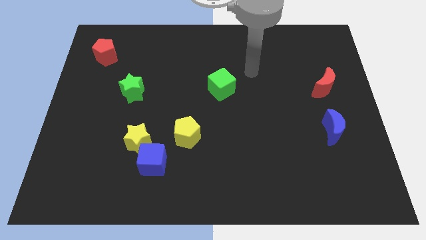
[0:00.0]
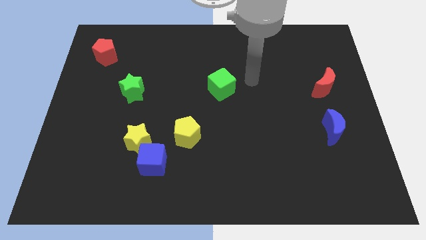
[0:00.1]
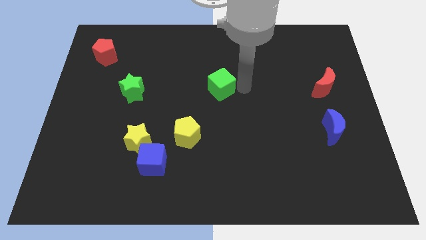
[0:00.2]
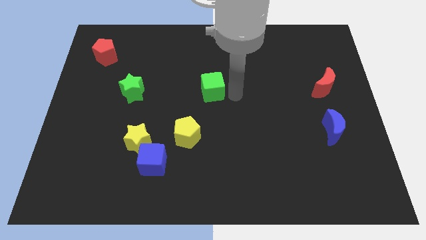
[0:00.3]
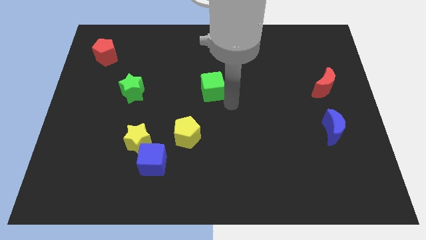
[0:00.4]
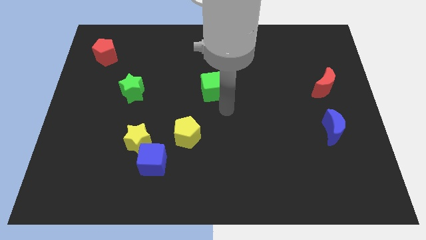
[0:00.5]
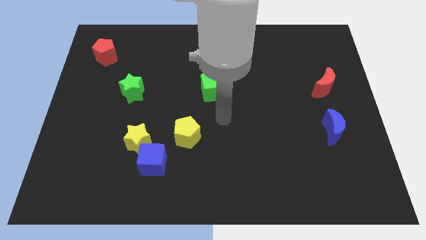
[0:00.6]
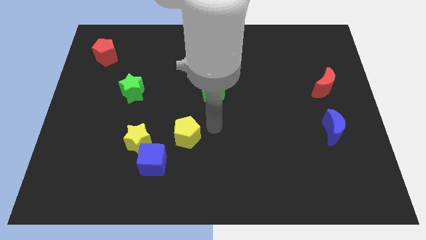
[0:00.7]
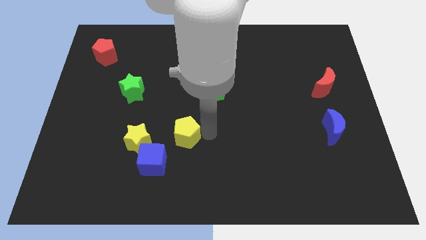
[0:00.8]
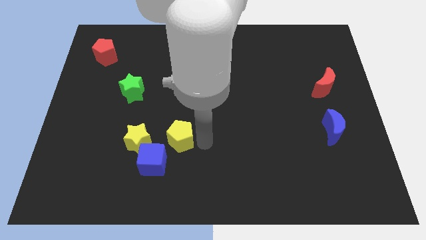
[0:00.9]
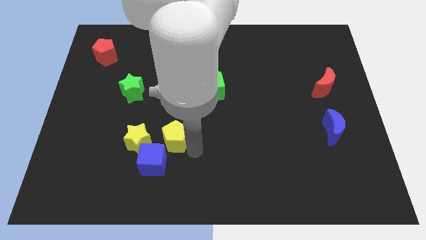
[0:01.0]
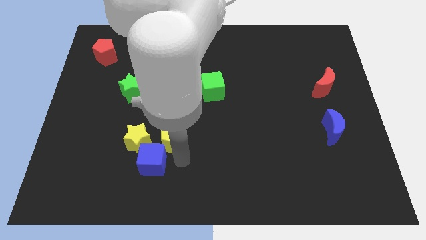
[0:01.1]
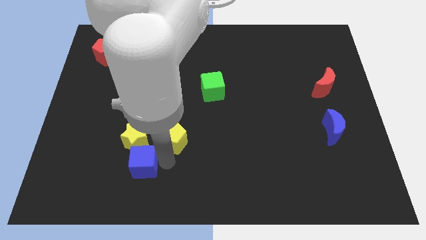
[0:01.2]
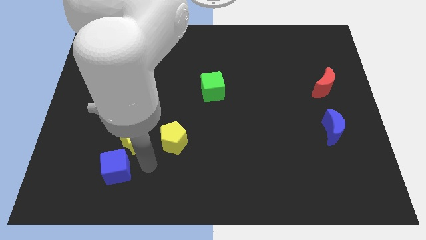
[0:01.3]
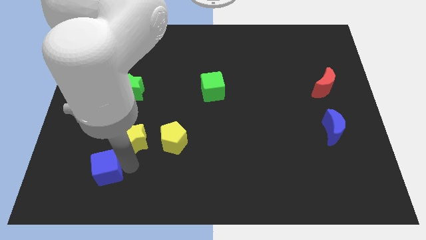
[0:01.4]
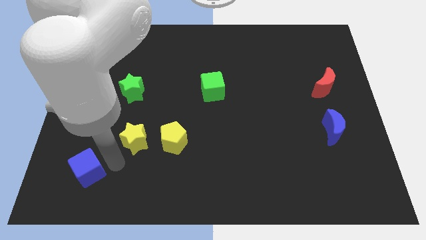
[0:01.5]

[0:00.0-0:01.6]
pull the yellow star apart from the blue cube

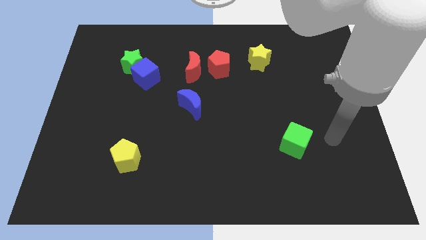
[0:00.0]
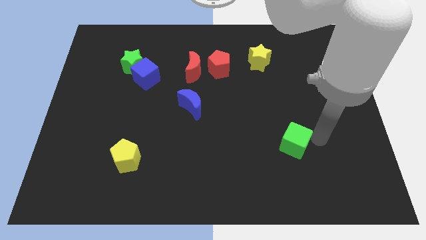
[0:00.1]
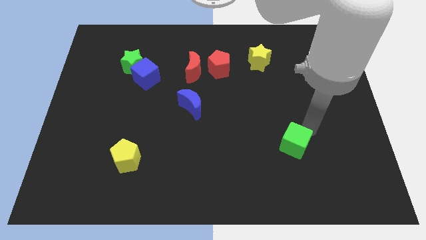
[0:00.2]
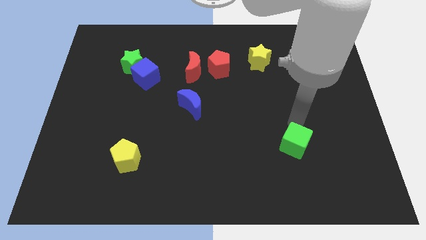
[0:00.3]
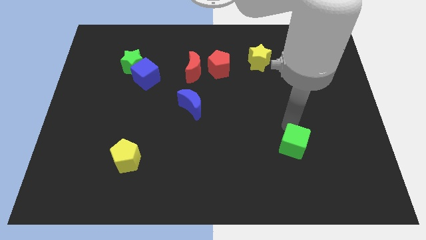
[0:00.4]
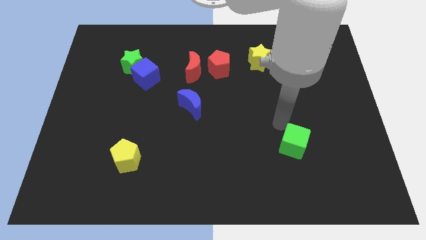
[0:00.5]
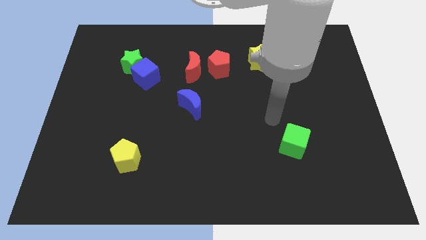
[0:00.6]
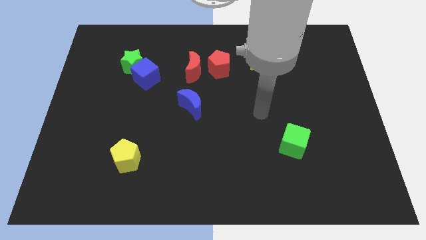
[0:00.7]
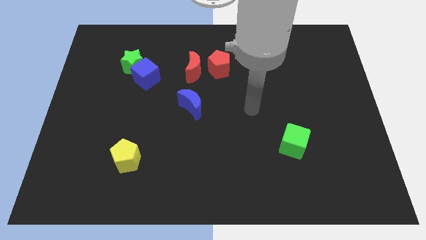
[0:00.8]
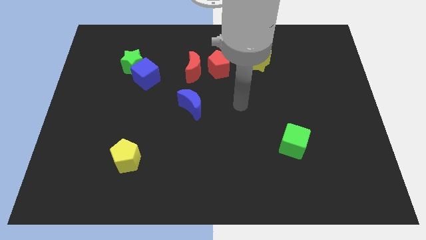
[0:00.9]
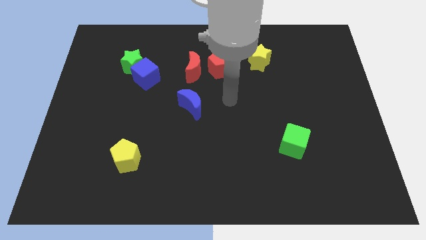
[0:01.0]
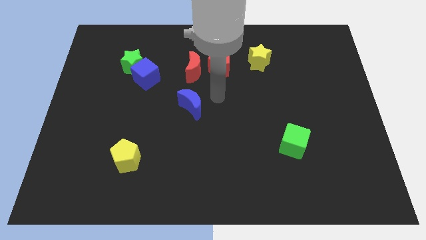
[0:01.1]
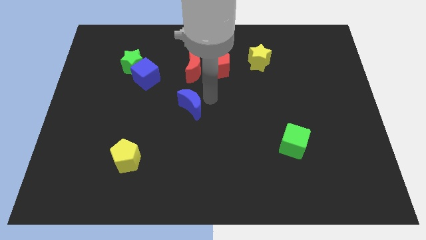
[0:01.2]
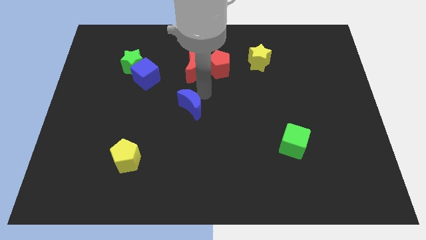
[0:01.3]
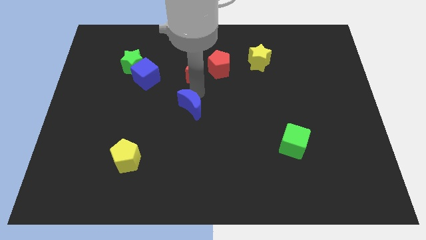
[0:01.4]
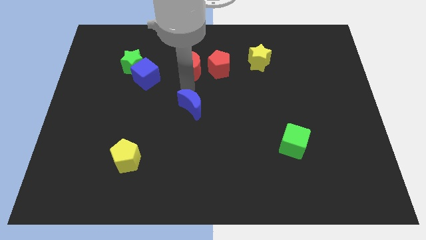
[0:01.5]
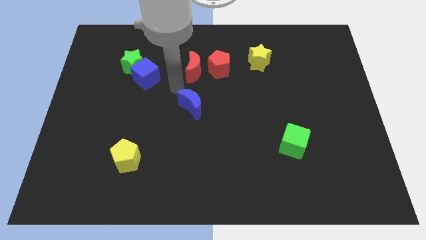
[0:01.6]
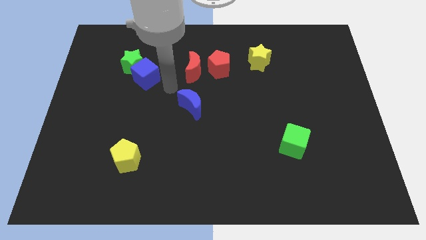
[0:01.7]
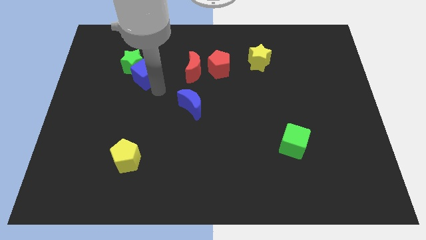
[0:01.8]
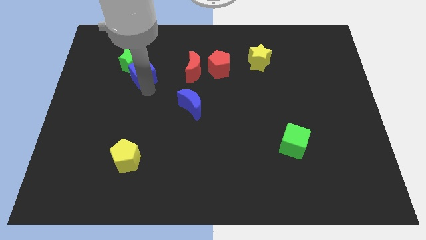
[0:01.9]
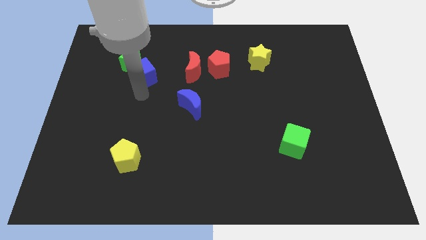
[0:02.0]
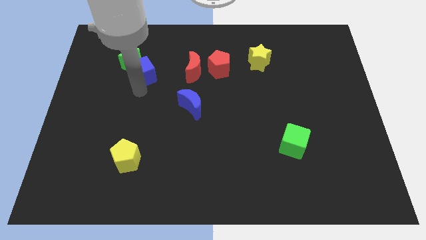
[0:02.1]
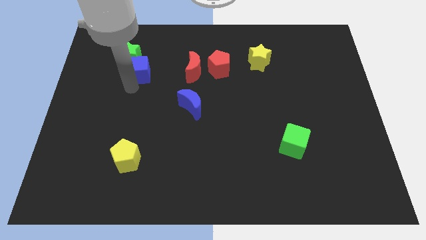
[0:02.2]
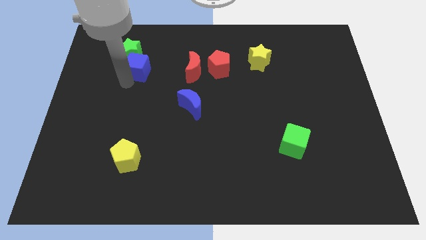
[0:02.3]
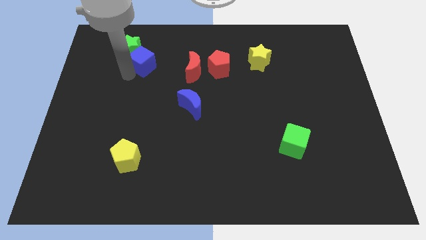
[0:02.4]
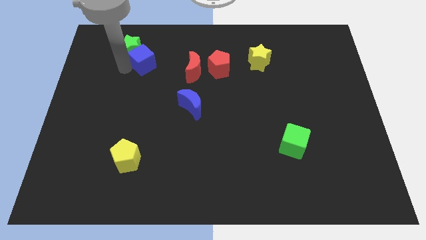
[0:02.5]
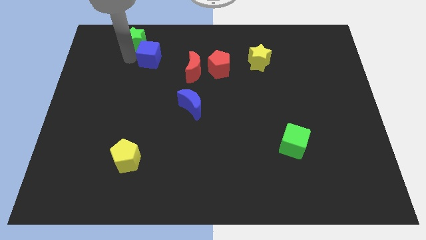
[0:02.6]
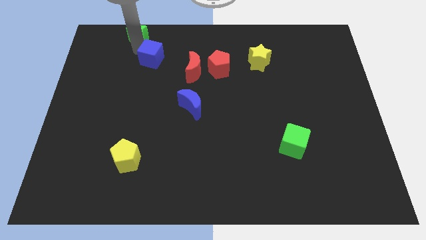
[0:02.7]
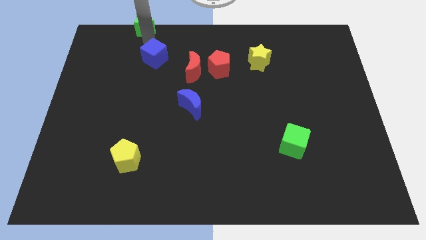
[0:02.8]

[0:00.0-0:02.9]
separate the blue cube from the green star

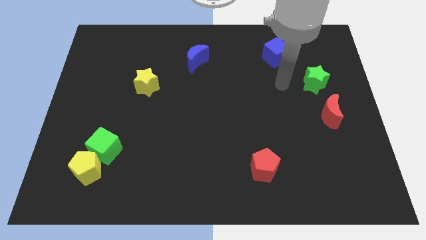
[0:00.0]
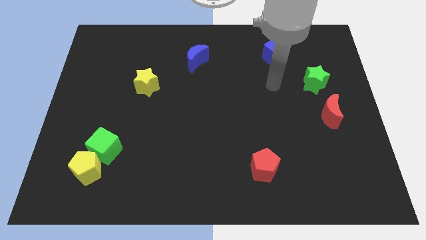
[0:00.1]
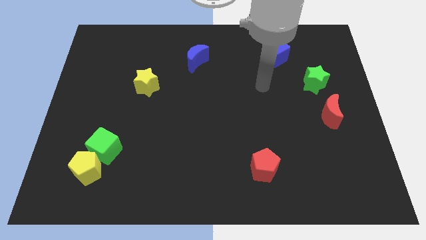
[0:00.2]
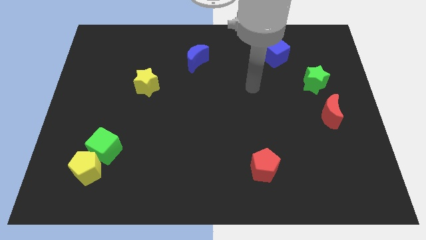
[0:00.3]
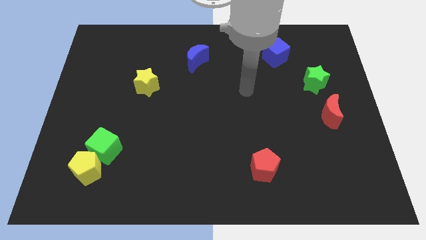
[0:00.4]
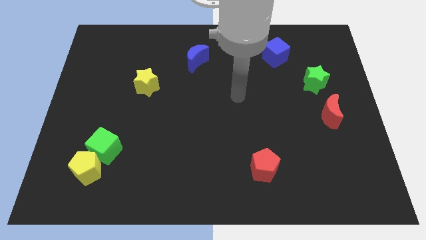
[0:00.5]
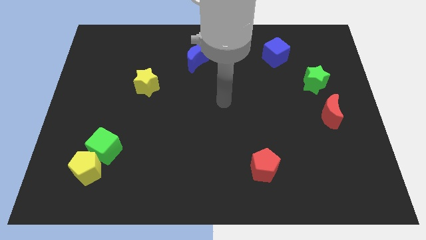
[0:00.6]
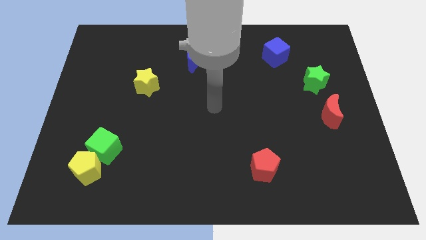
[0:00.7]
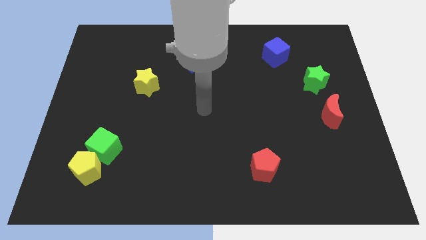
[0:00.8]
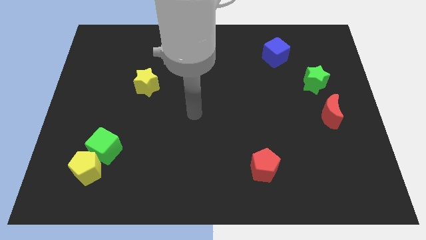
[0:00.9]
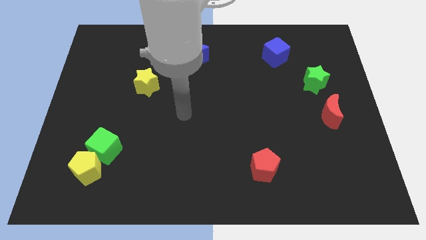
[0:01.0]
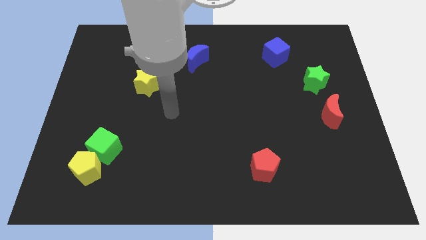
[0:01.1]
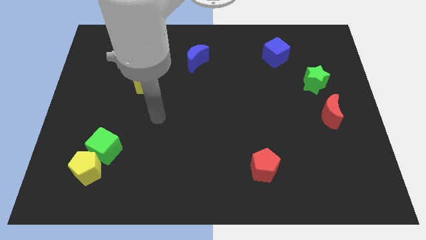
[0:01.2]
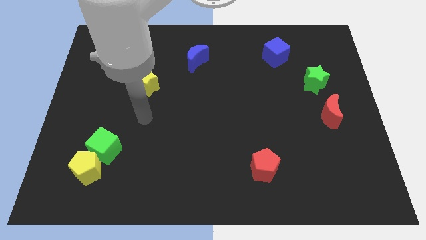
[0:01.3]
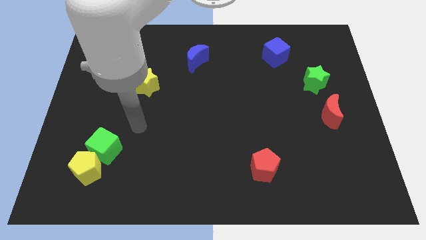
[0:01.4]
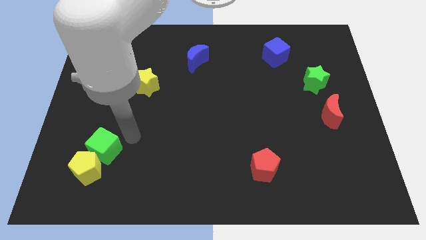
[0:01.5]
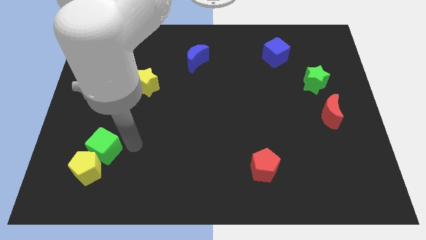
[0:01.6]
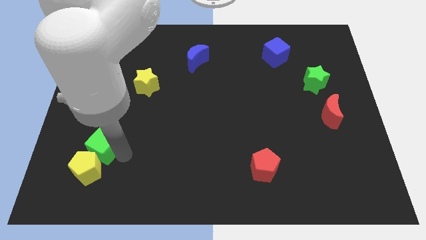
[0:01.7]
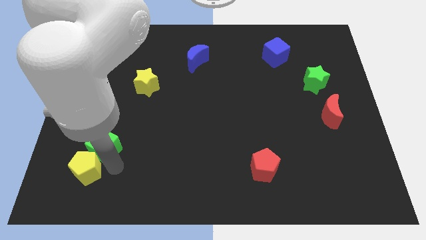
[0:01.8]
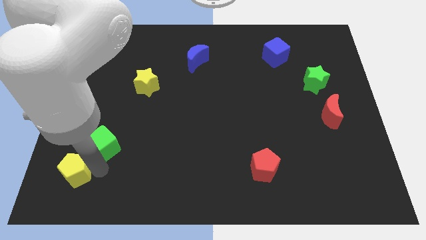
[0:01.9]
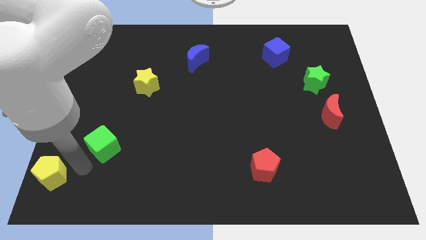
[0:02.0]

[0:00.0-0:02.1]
pull the green cube apart from the yellow pentagon

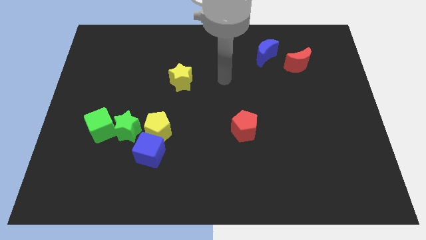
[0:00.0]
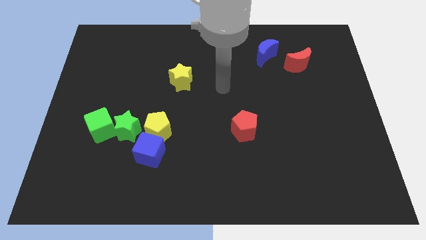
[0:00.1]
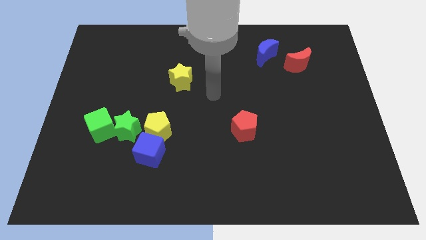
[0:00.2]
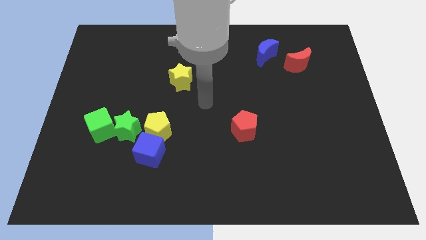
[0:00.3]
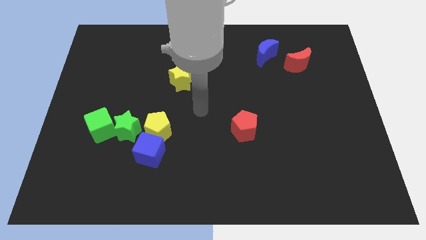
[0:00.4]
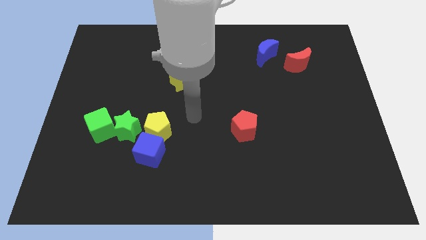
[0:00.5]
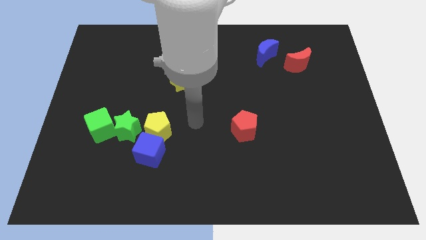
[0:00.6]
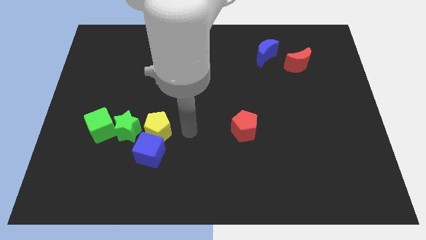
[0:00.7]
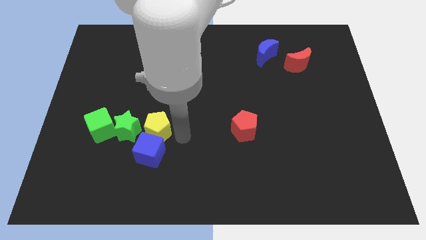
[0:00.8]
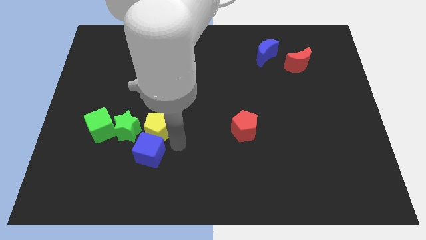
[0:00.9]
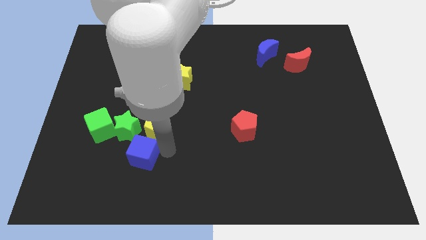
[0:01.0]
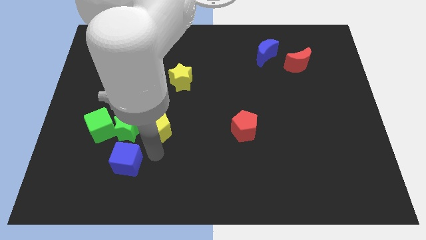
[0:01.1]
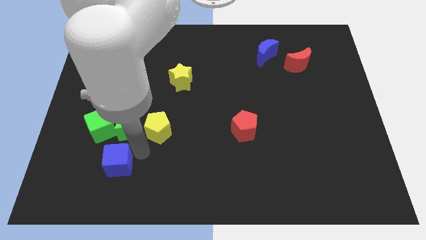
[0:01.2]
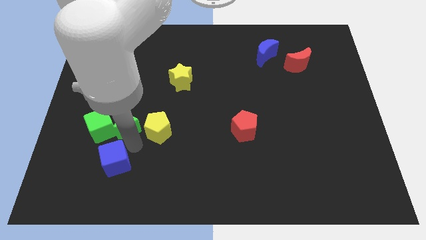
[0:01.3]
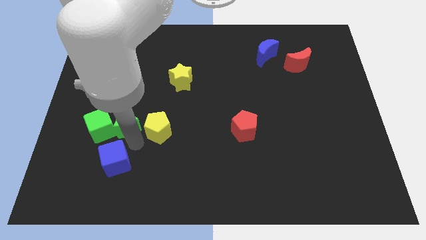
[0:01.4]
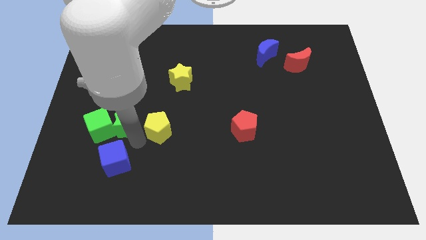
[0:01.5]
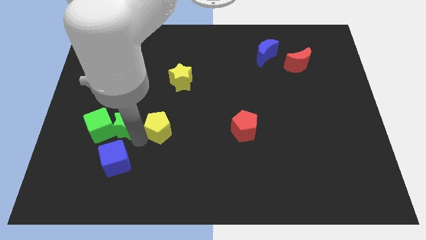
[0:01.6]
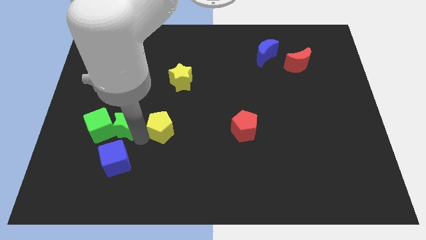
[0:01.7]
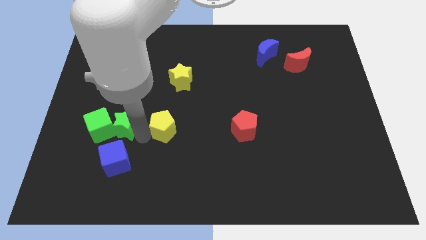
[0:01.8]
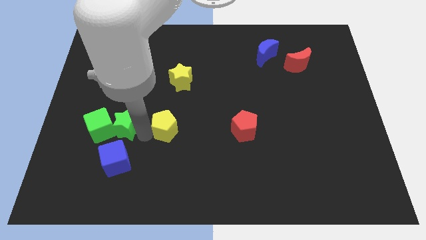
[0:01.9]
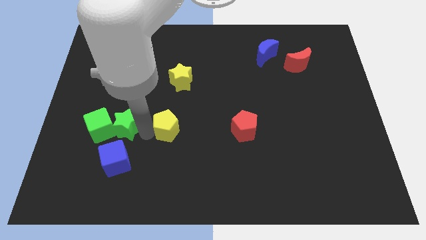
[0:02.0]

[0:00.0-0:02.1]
separate the yellow pentagon from the blue cube and green star

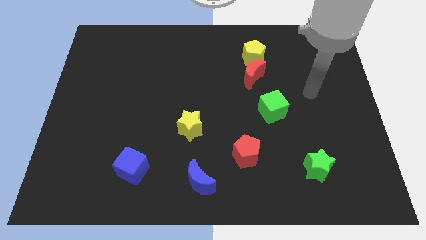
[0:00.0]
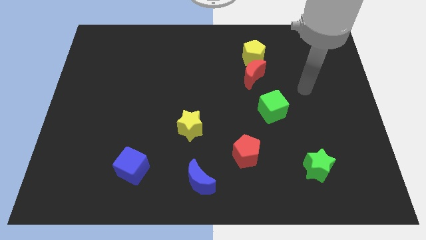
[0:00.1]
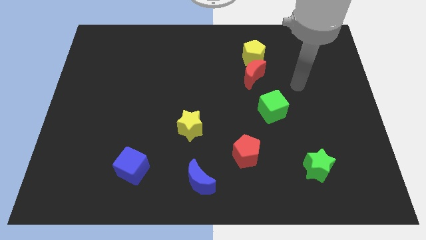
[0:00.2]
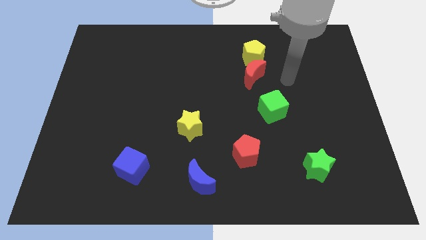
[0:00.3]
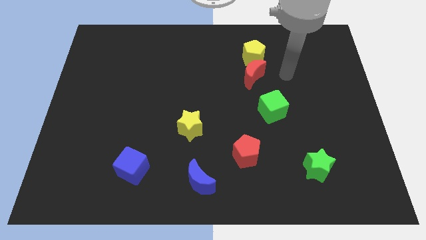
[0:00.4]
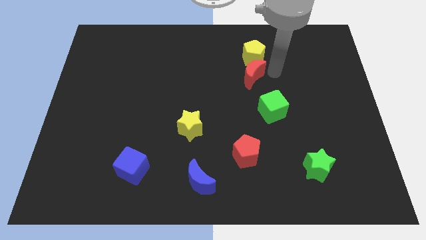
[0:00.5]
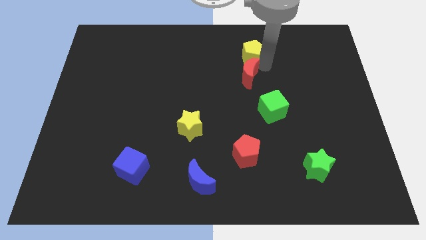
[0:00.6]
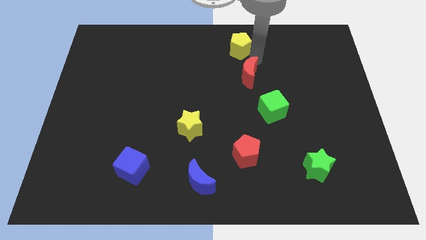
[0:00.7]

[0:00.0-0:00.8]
separate the red moon from the yellow pentagon
